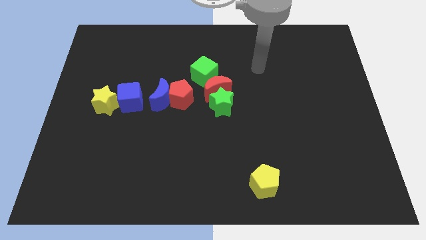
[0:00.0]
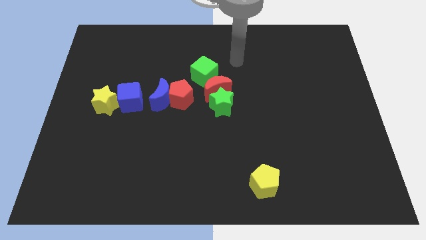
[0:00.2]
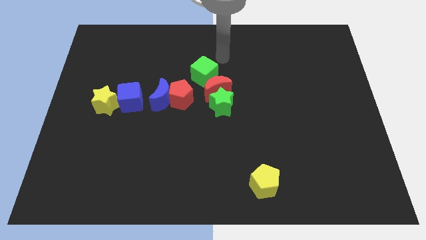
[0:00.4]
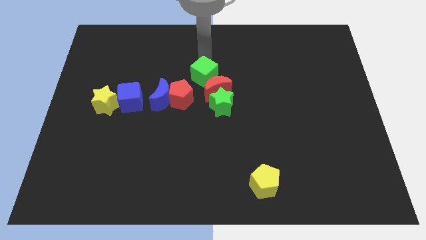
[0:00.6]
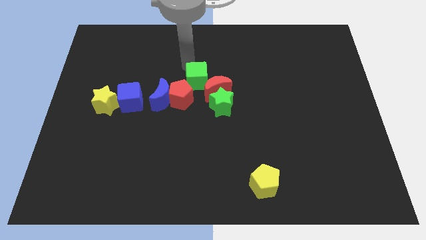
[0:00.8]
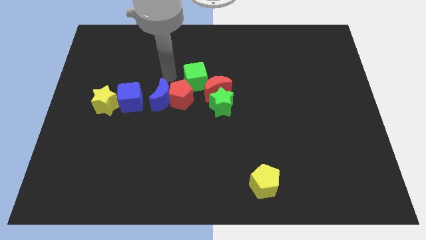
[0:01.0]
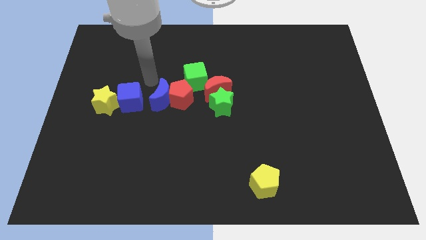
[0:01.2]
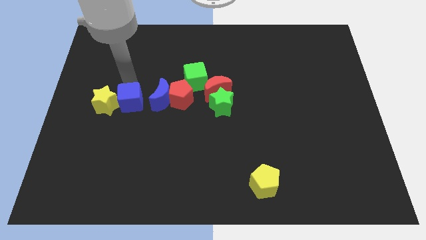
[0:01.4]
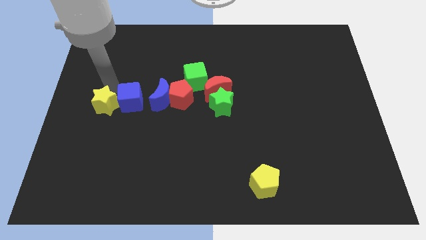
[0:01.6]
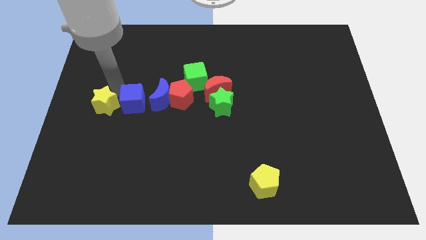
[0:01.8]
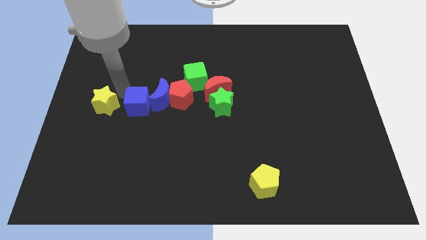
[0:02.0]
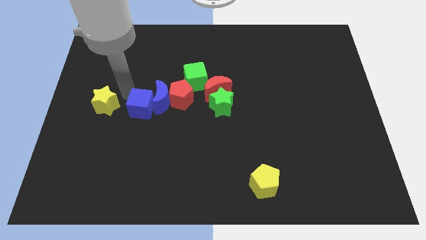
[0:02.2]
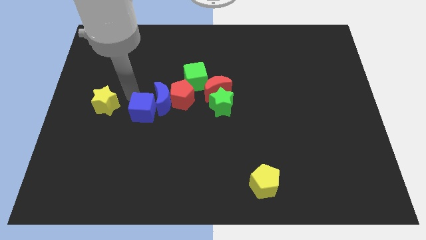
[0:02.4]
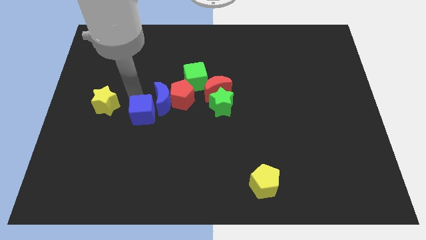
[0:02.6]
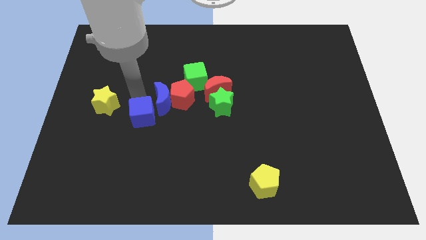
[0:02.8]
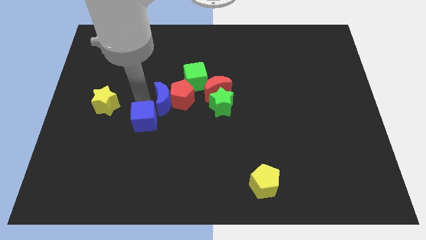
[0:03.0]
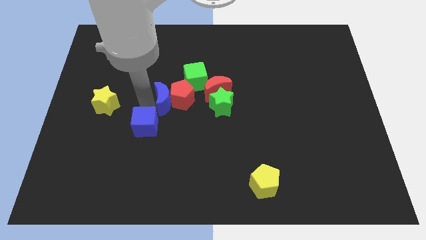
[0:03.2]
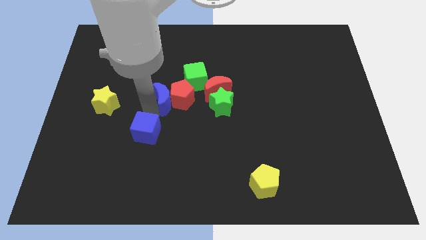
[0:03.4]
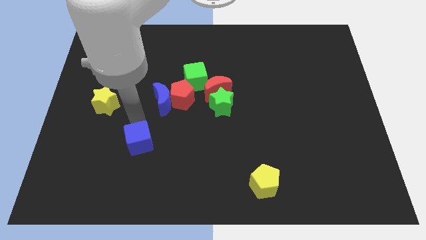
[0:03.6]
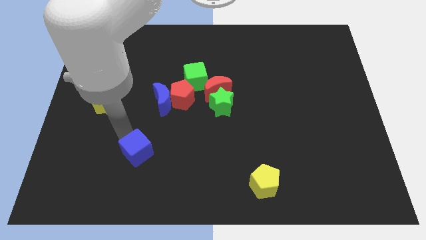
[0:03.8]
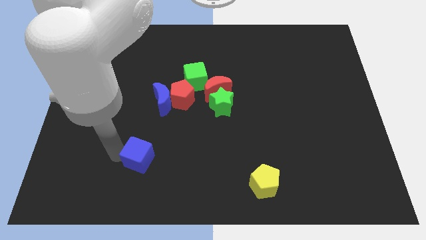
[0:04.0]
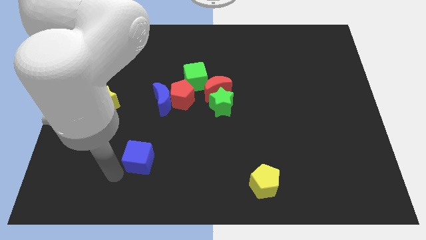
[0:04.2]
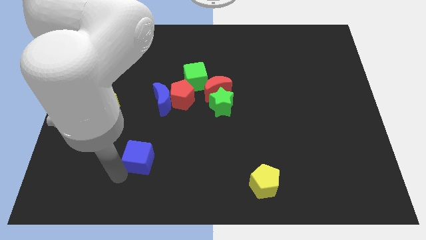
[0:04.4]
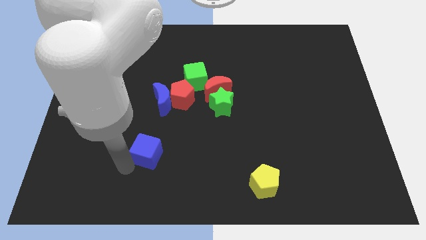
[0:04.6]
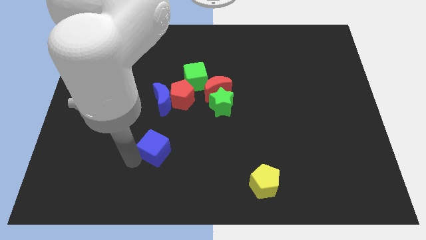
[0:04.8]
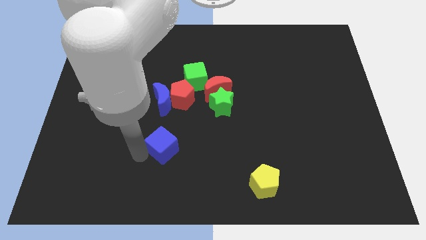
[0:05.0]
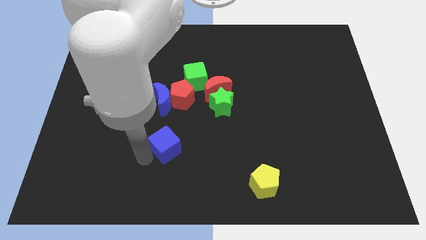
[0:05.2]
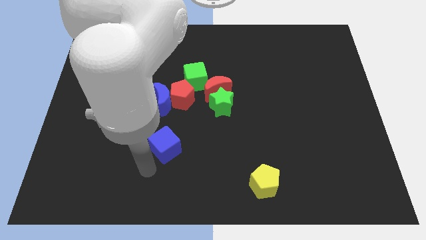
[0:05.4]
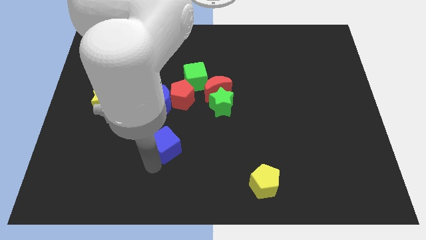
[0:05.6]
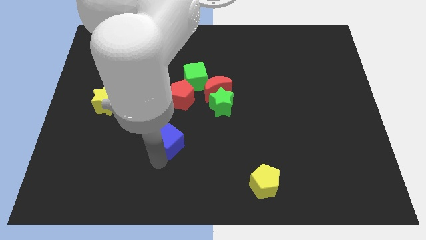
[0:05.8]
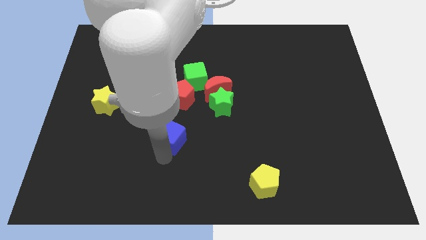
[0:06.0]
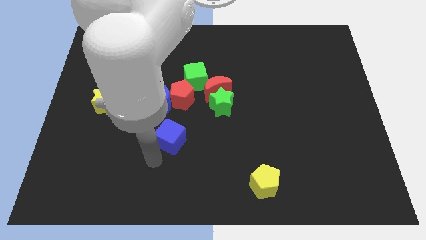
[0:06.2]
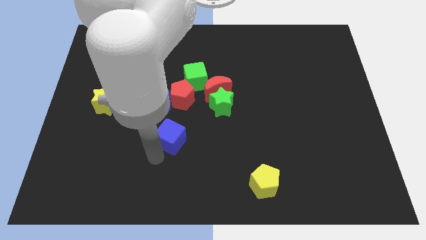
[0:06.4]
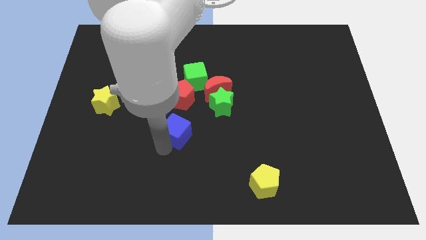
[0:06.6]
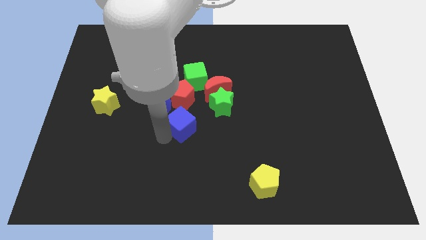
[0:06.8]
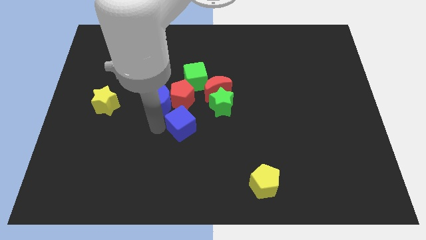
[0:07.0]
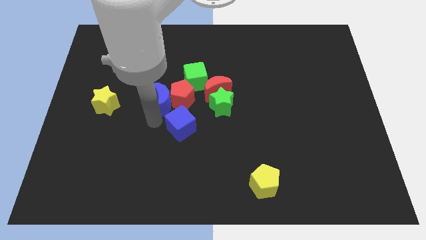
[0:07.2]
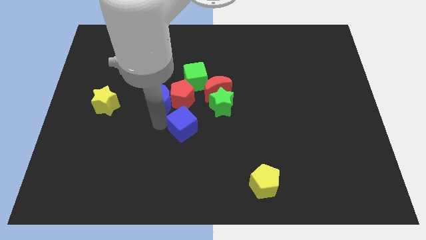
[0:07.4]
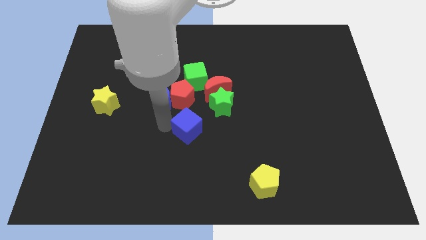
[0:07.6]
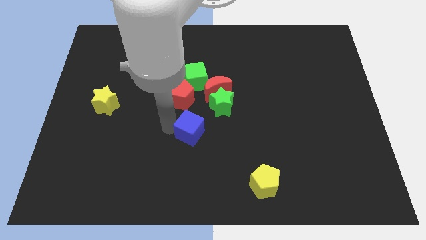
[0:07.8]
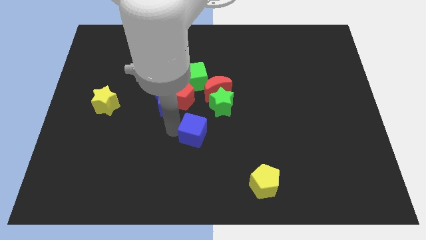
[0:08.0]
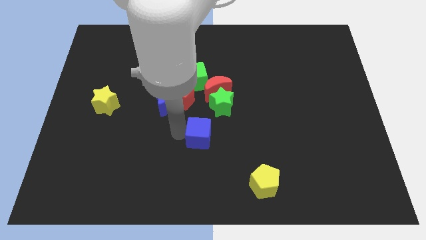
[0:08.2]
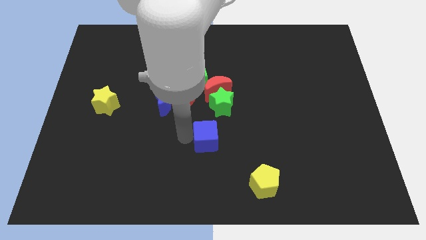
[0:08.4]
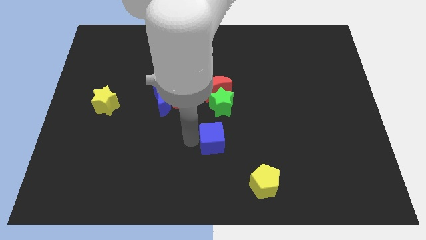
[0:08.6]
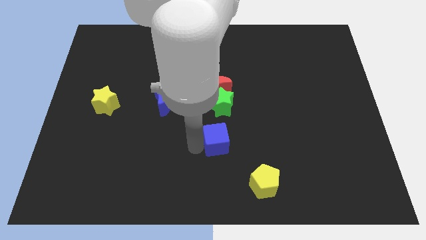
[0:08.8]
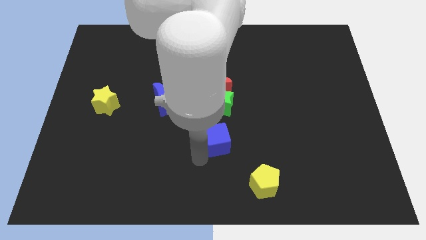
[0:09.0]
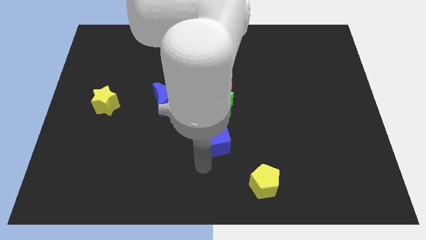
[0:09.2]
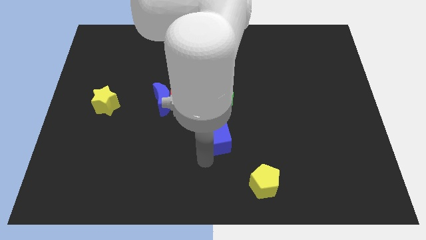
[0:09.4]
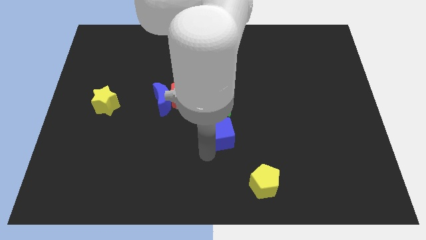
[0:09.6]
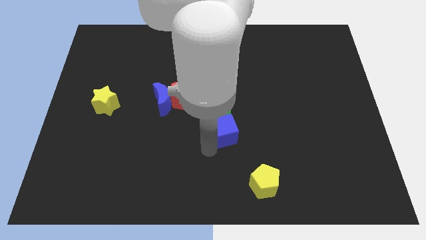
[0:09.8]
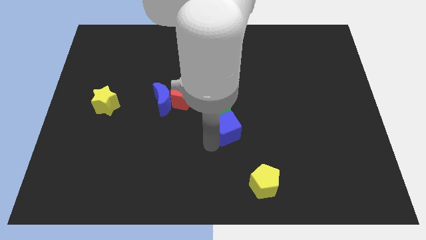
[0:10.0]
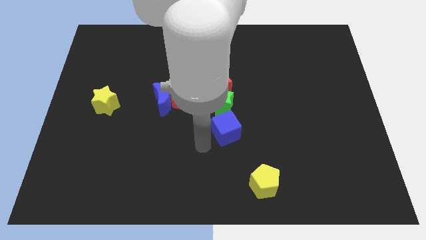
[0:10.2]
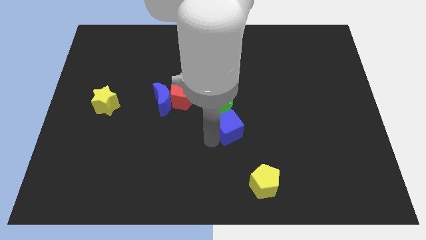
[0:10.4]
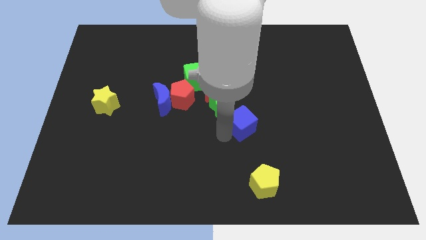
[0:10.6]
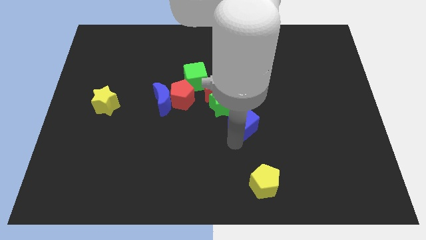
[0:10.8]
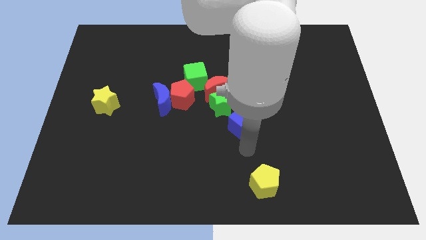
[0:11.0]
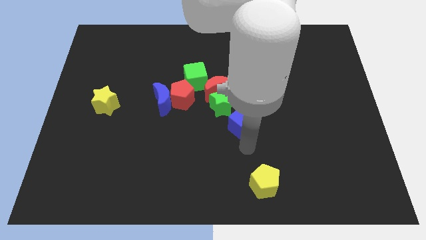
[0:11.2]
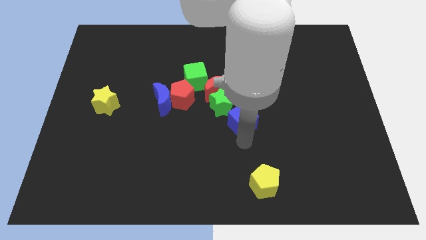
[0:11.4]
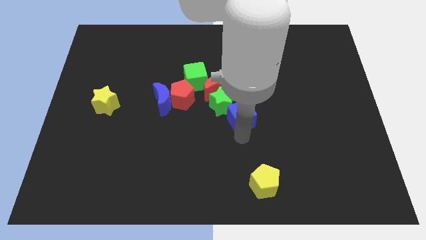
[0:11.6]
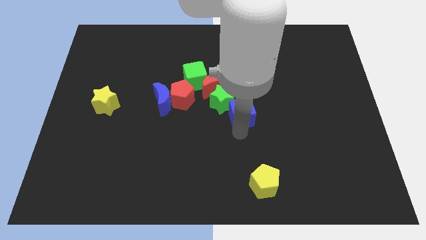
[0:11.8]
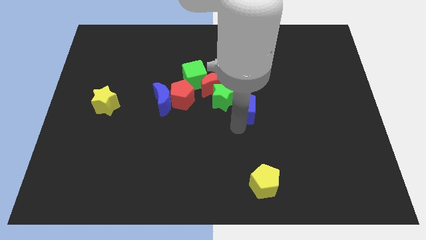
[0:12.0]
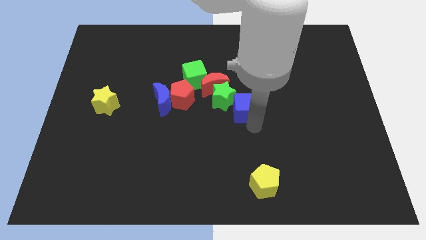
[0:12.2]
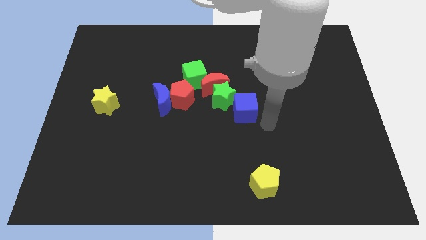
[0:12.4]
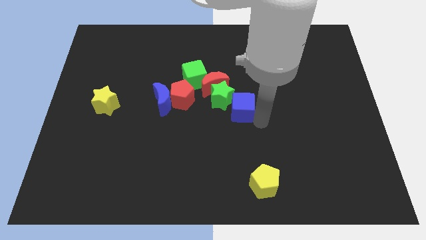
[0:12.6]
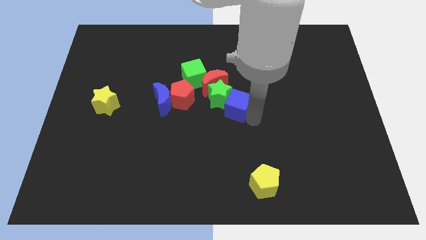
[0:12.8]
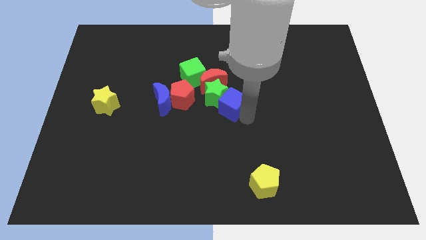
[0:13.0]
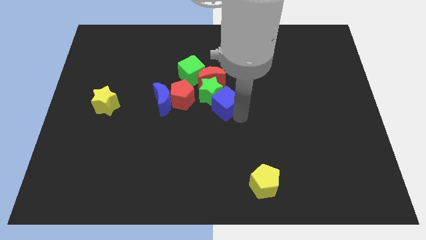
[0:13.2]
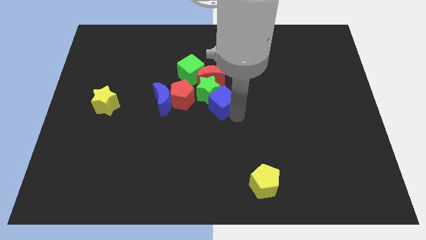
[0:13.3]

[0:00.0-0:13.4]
put the blue cube diagonally down and to the right of the green cube

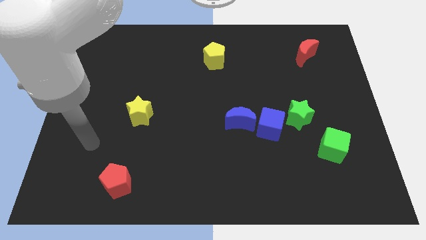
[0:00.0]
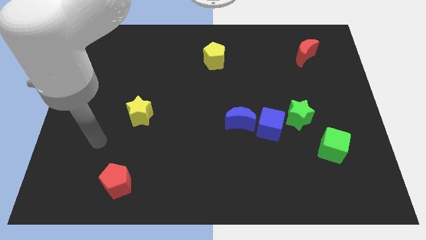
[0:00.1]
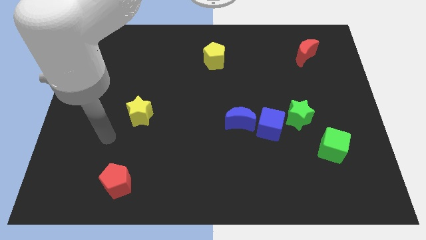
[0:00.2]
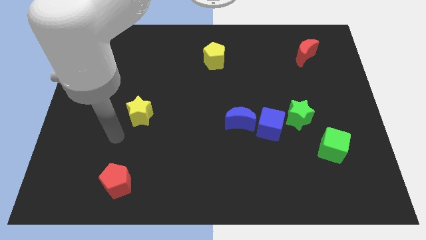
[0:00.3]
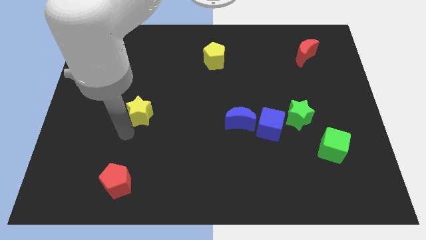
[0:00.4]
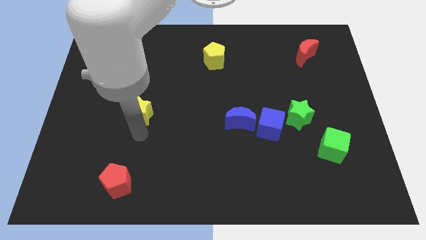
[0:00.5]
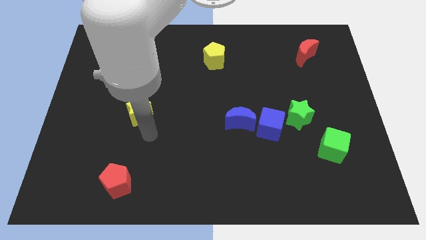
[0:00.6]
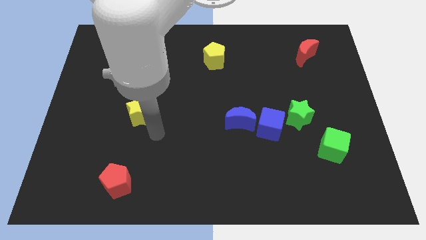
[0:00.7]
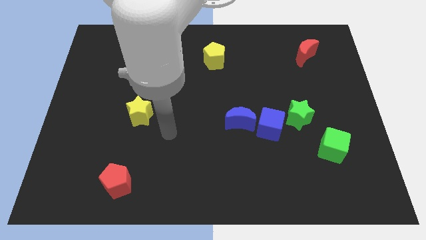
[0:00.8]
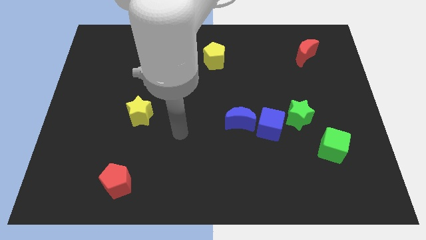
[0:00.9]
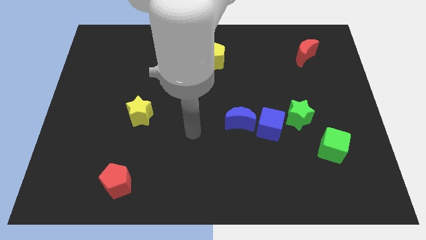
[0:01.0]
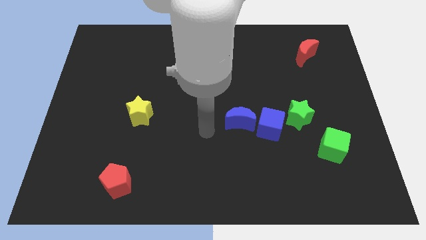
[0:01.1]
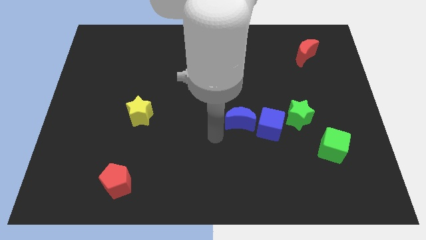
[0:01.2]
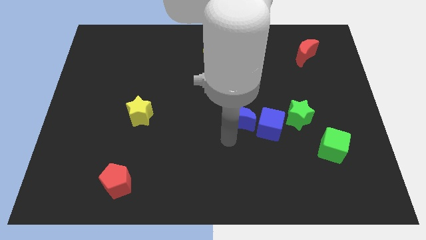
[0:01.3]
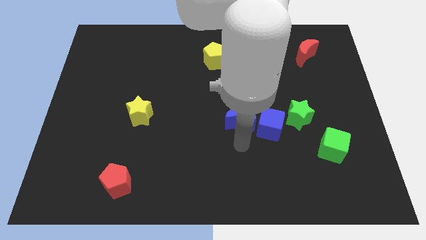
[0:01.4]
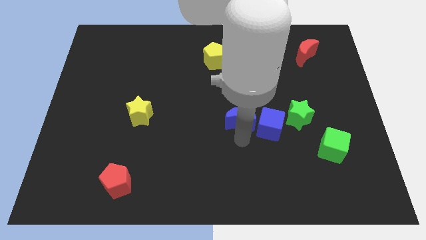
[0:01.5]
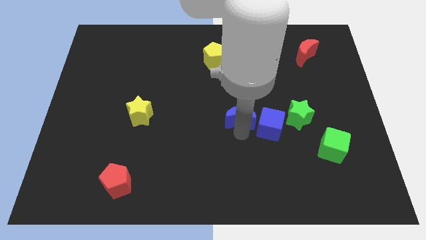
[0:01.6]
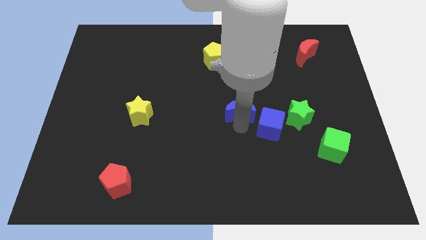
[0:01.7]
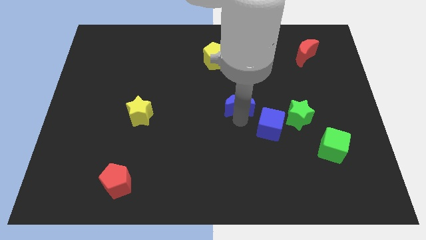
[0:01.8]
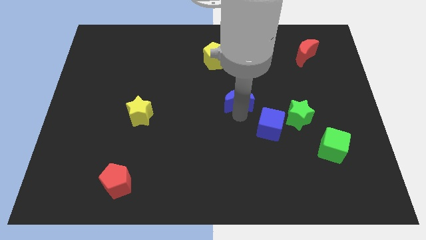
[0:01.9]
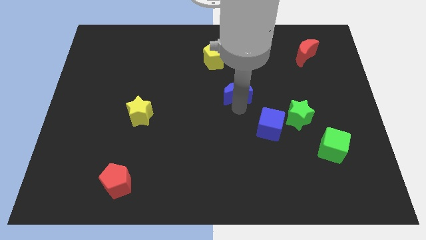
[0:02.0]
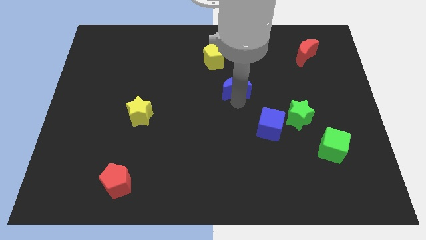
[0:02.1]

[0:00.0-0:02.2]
slide the blue moon diagonally down and to the right of the yellow pentagon
